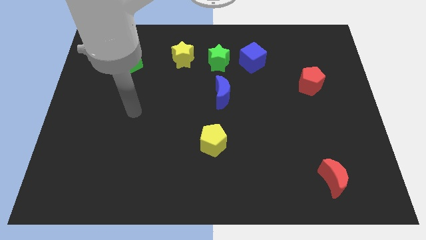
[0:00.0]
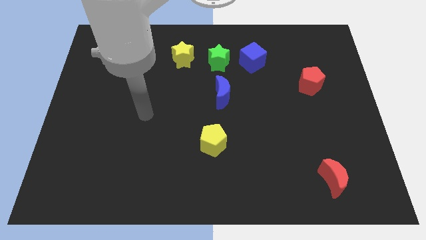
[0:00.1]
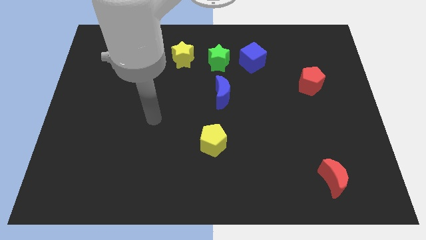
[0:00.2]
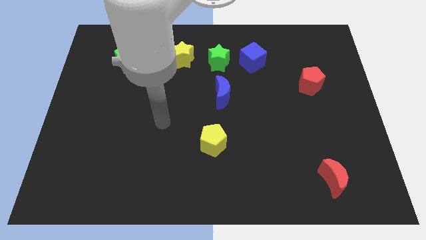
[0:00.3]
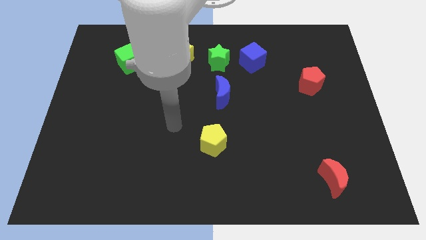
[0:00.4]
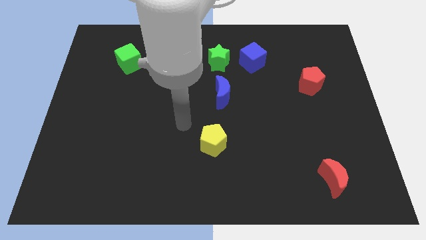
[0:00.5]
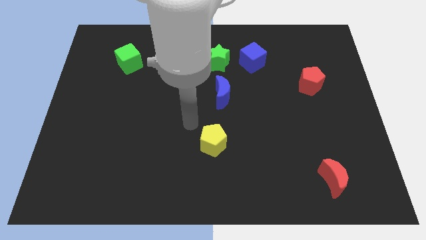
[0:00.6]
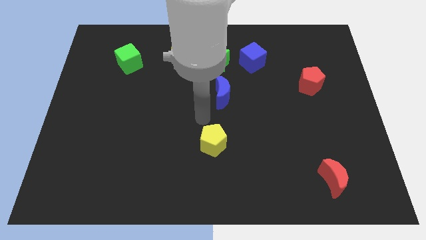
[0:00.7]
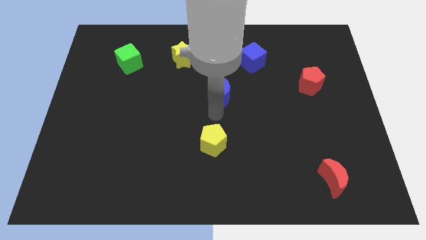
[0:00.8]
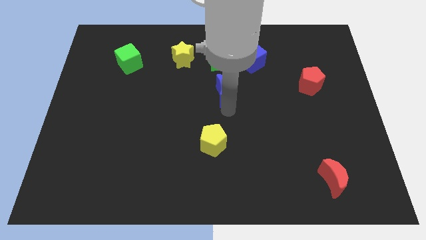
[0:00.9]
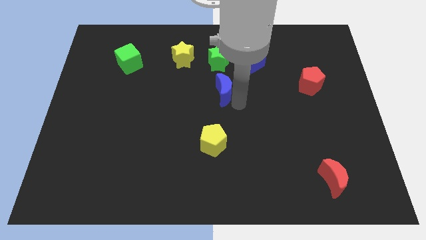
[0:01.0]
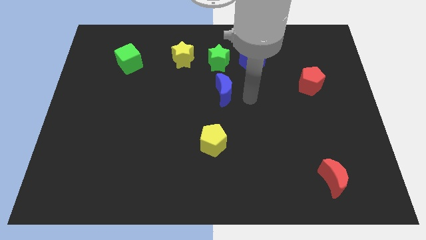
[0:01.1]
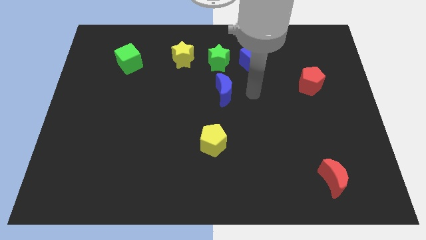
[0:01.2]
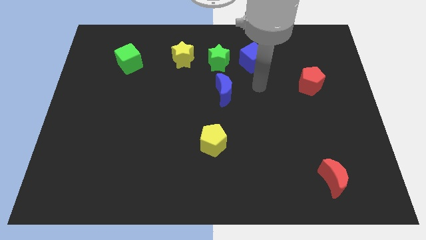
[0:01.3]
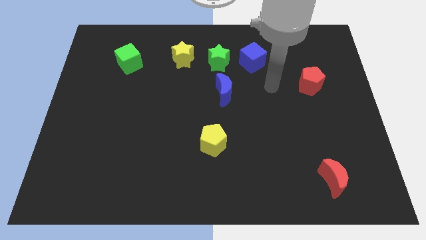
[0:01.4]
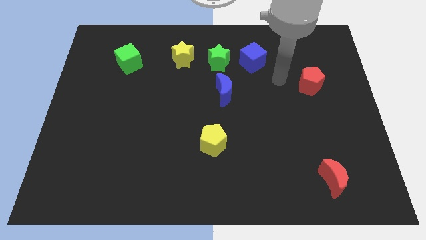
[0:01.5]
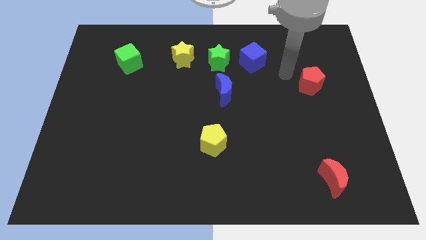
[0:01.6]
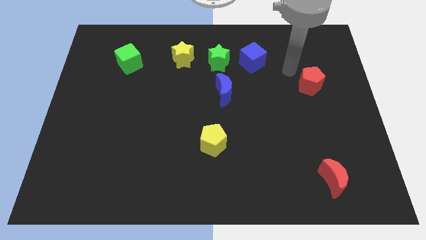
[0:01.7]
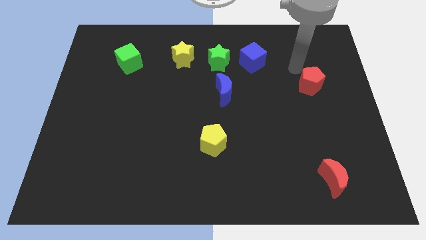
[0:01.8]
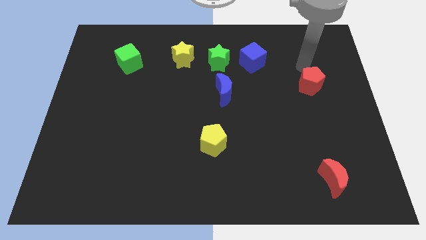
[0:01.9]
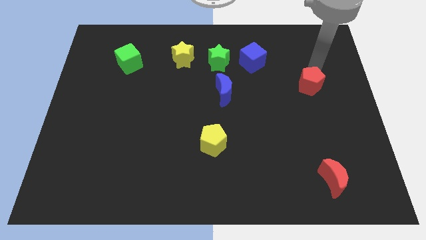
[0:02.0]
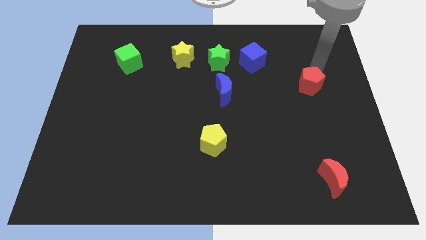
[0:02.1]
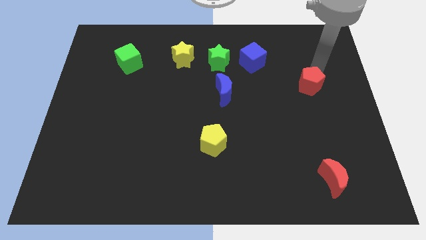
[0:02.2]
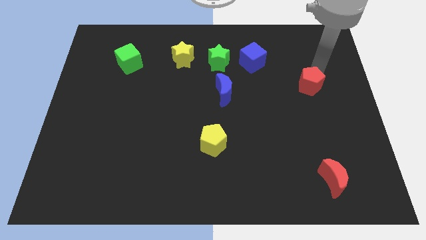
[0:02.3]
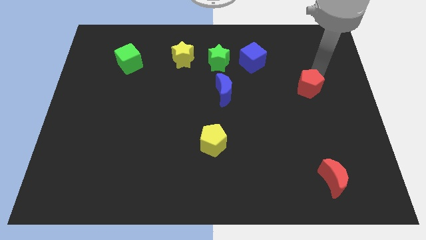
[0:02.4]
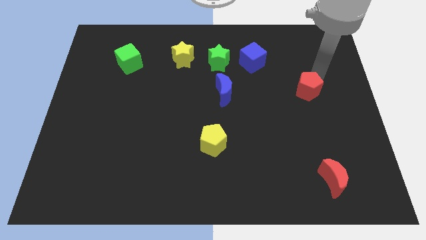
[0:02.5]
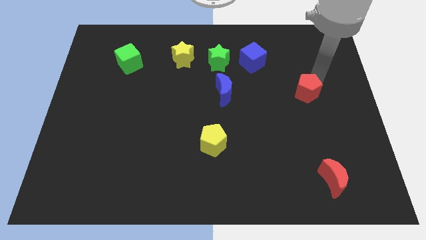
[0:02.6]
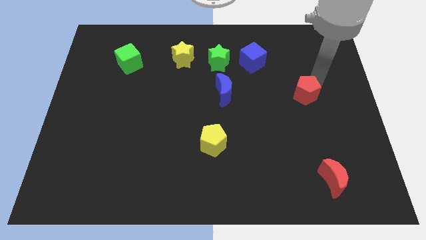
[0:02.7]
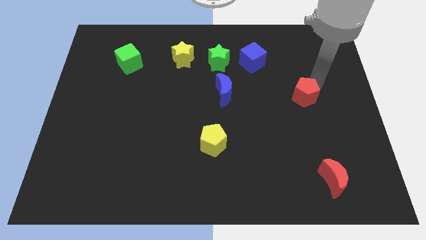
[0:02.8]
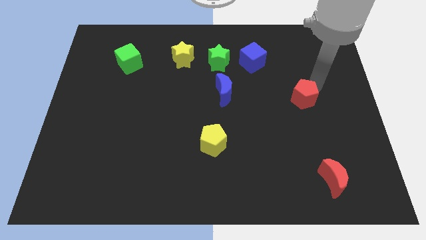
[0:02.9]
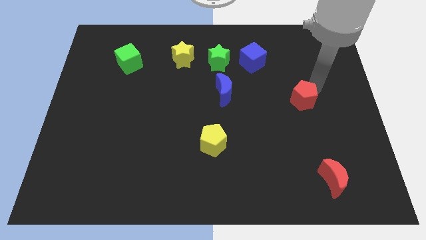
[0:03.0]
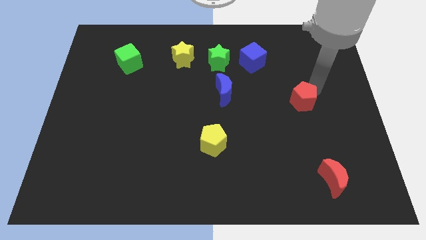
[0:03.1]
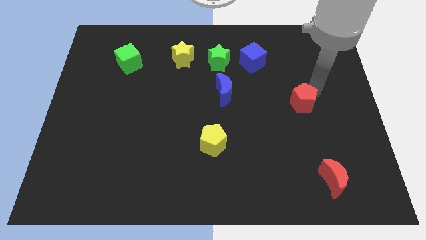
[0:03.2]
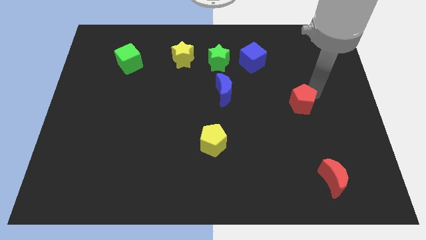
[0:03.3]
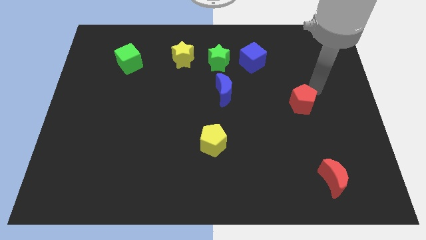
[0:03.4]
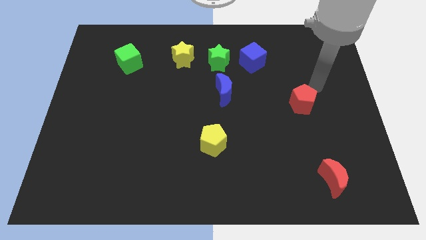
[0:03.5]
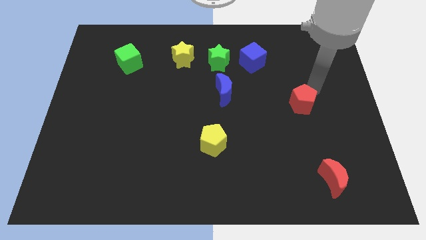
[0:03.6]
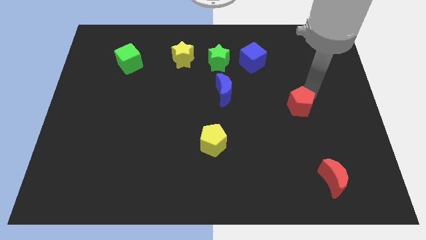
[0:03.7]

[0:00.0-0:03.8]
slightly push the red pentagon down and left

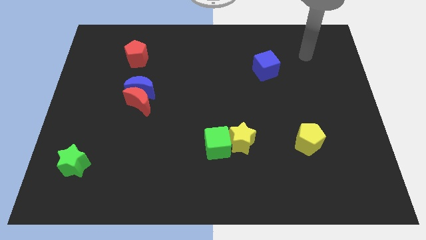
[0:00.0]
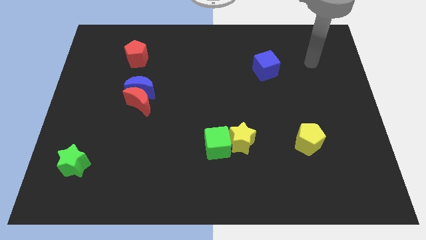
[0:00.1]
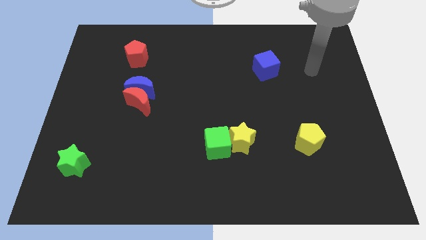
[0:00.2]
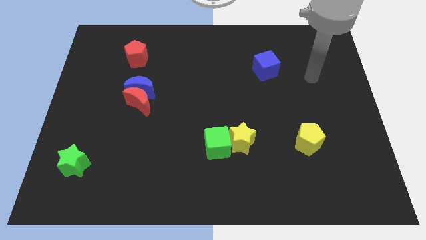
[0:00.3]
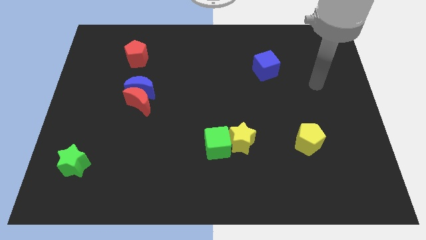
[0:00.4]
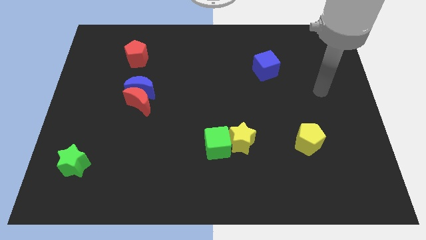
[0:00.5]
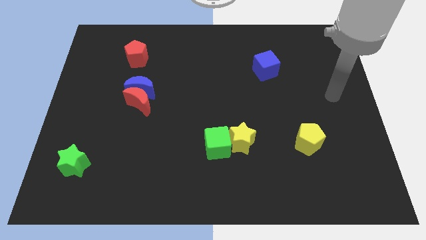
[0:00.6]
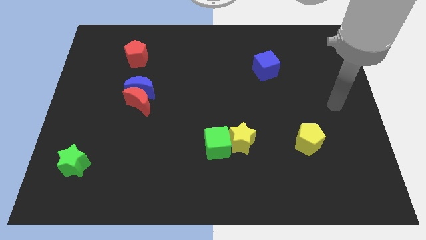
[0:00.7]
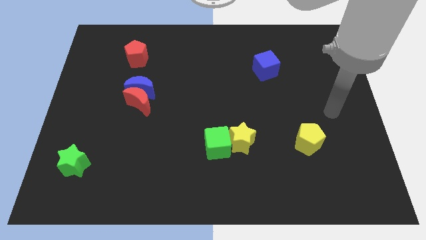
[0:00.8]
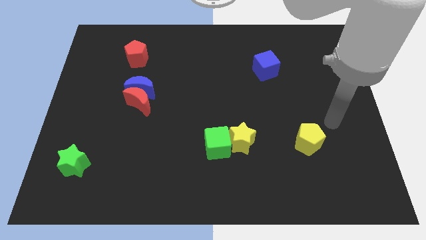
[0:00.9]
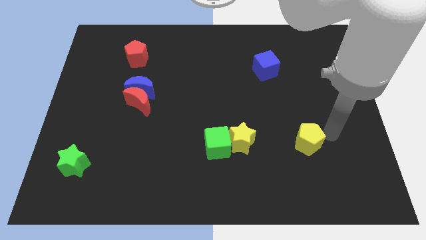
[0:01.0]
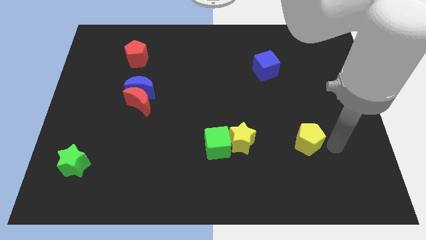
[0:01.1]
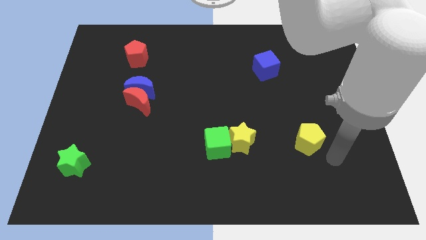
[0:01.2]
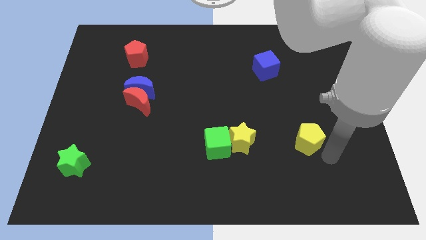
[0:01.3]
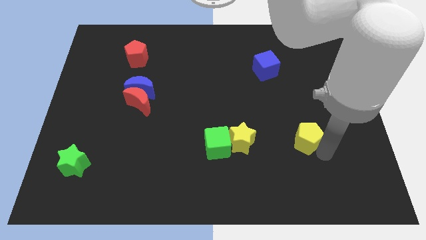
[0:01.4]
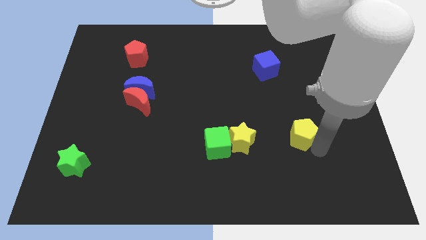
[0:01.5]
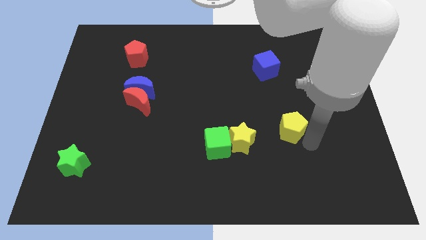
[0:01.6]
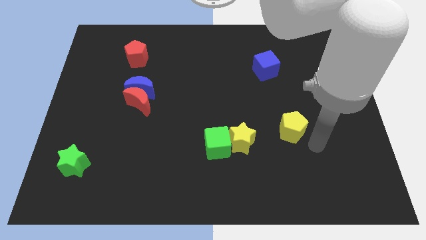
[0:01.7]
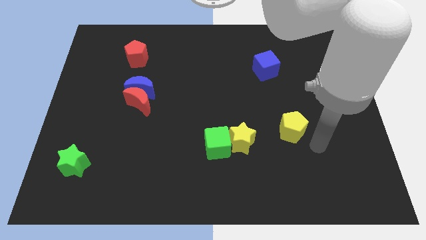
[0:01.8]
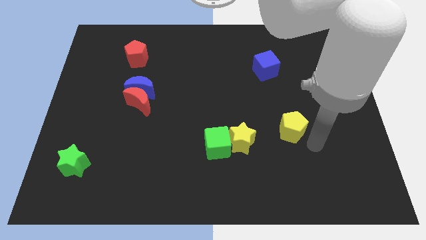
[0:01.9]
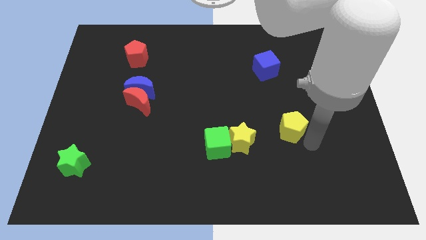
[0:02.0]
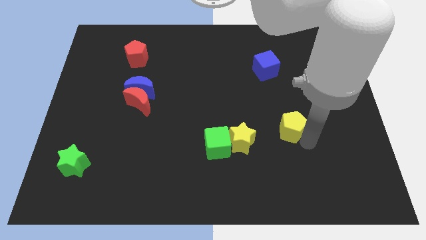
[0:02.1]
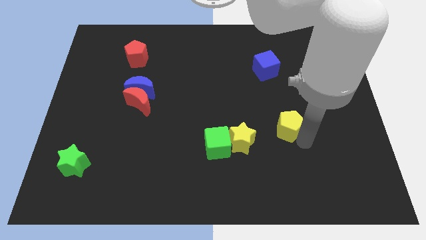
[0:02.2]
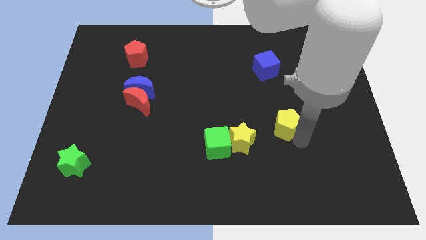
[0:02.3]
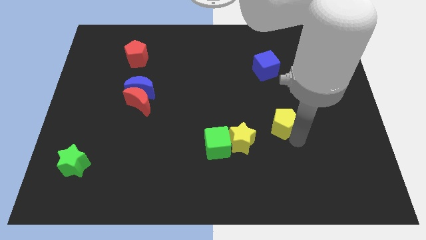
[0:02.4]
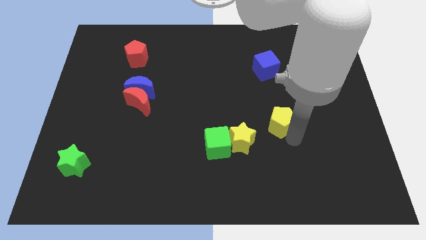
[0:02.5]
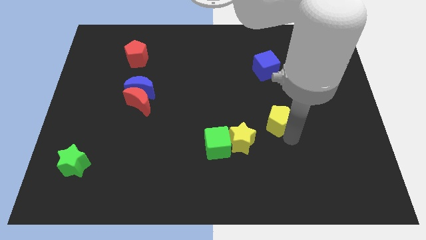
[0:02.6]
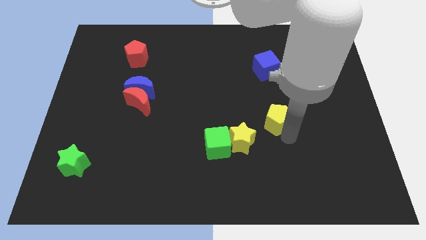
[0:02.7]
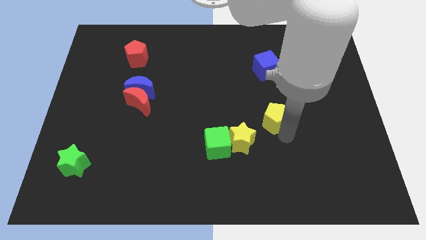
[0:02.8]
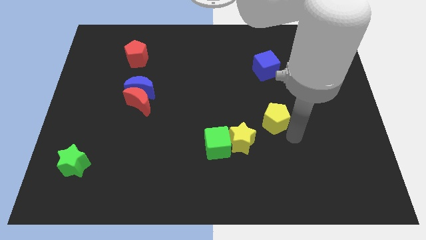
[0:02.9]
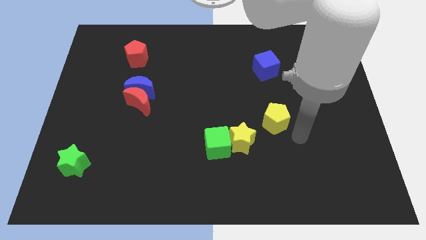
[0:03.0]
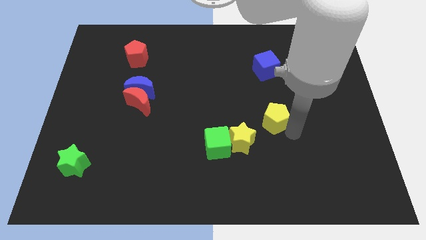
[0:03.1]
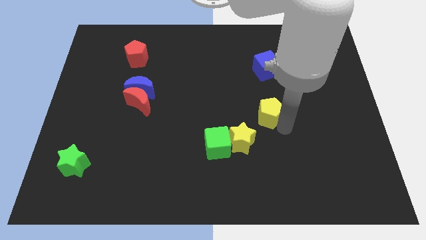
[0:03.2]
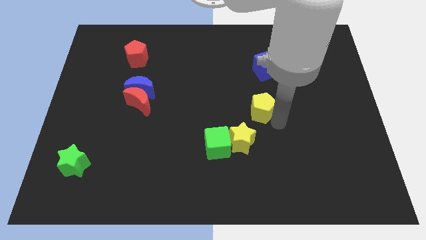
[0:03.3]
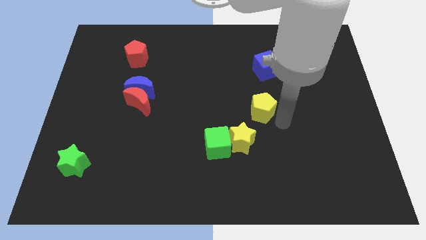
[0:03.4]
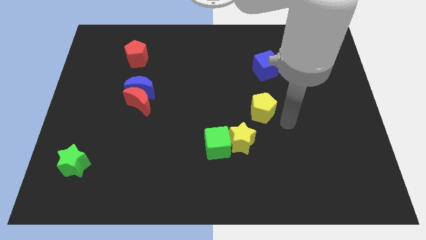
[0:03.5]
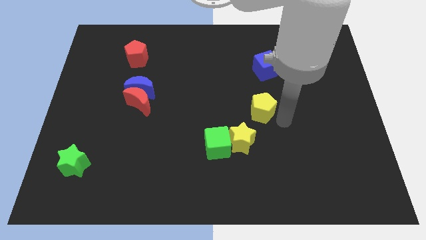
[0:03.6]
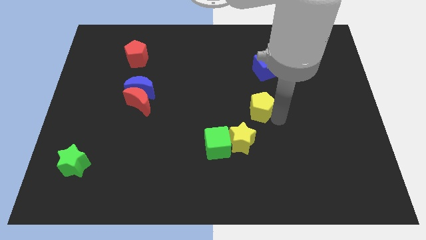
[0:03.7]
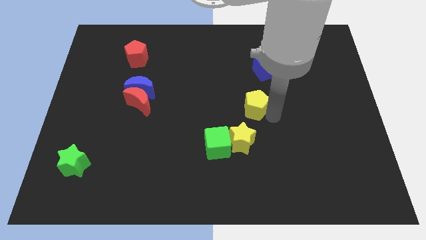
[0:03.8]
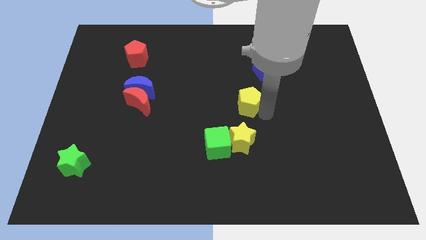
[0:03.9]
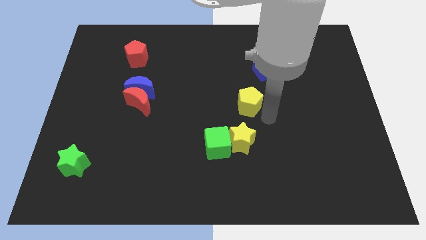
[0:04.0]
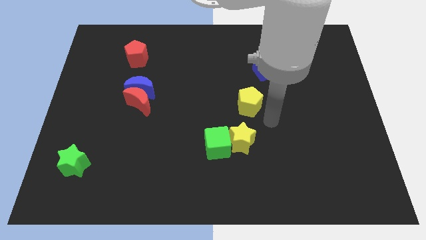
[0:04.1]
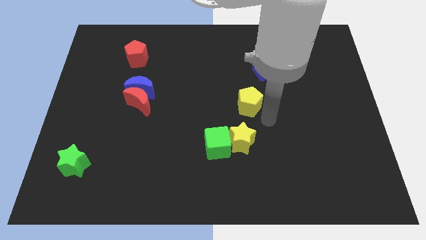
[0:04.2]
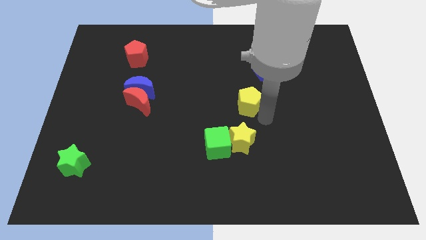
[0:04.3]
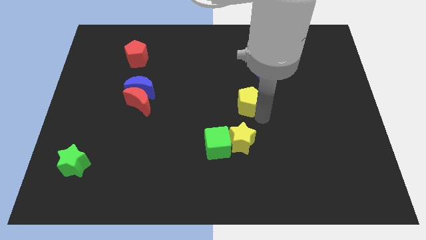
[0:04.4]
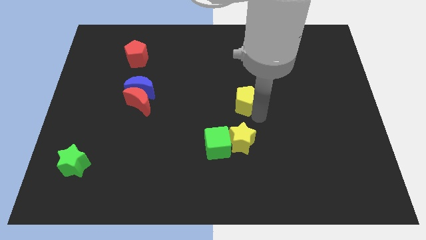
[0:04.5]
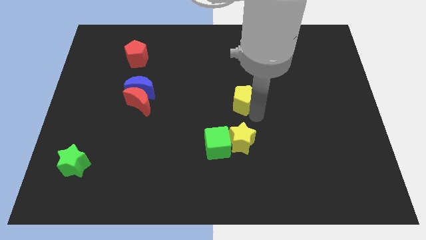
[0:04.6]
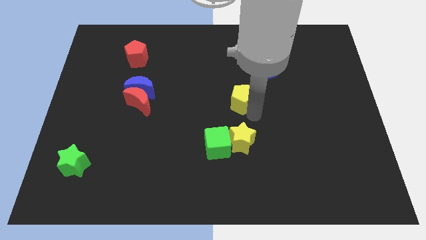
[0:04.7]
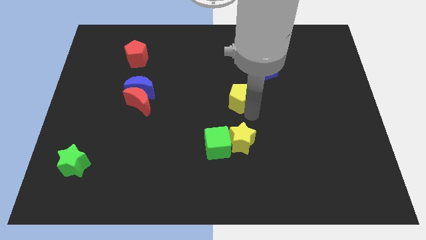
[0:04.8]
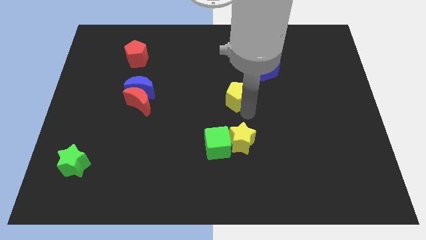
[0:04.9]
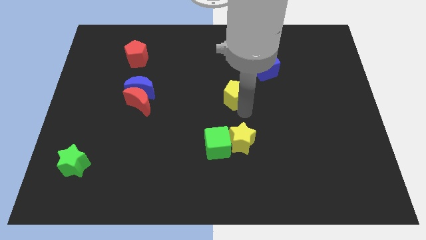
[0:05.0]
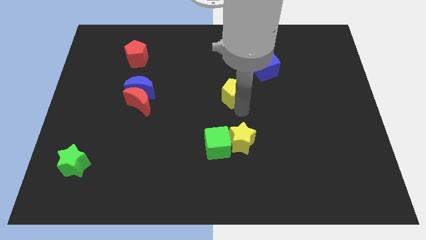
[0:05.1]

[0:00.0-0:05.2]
move the yellow pentagon diagonally up and left
